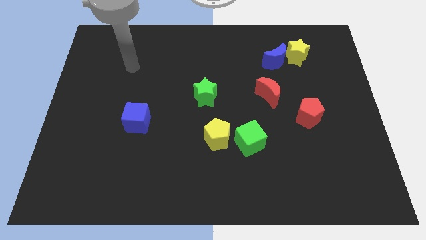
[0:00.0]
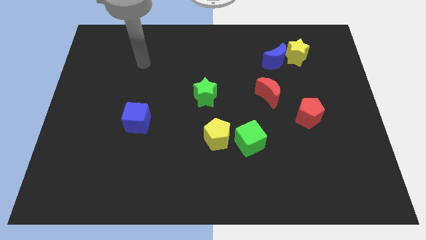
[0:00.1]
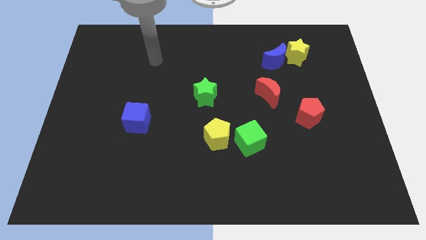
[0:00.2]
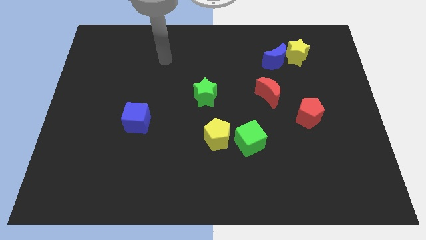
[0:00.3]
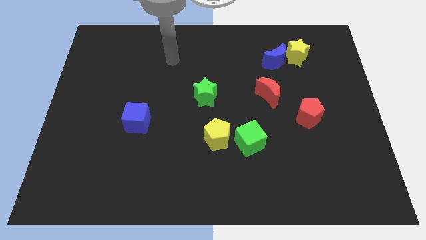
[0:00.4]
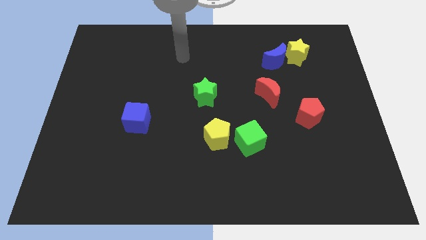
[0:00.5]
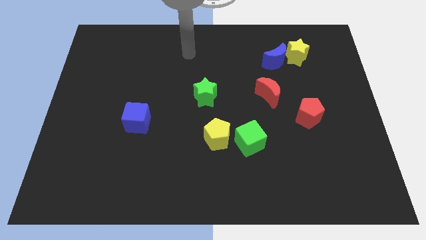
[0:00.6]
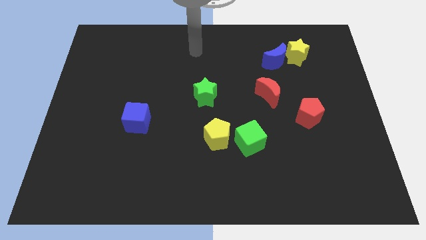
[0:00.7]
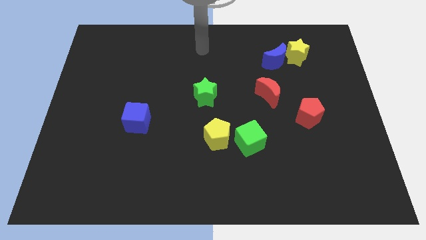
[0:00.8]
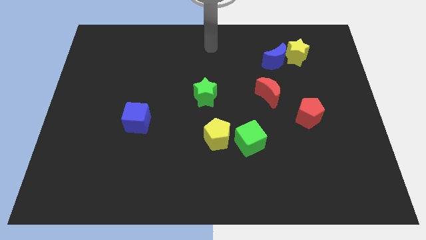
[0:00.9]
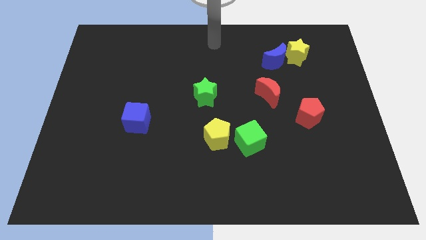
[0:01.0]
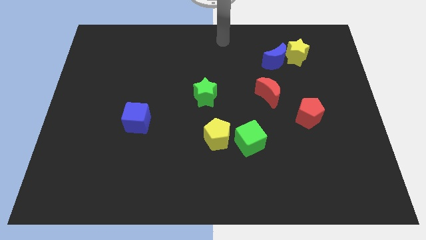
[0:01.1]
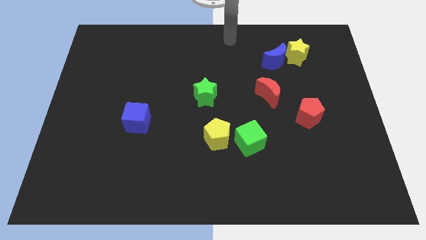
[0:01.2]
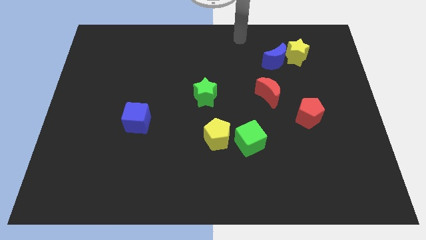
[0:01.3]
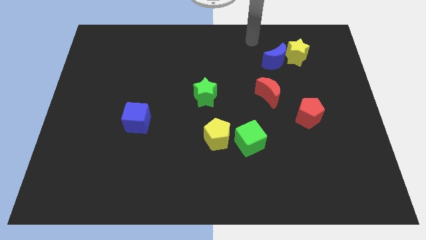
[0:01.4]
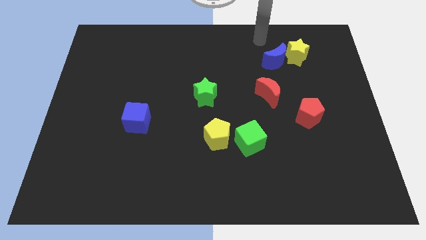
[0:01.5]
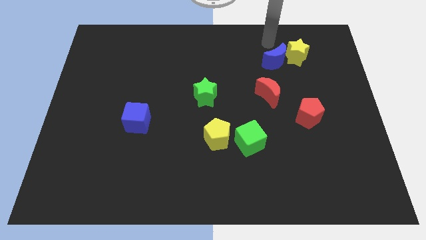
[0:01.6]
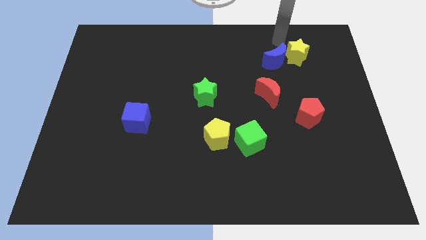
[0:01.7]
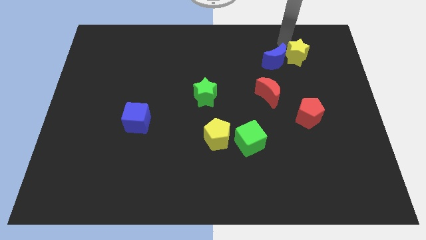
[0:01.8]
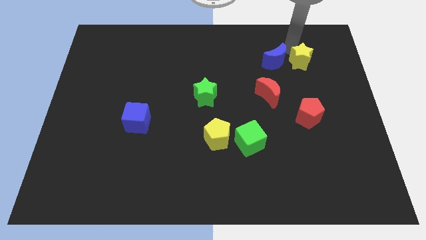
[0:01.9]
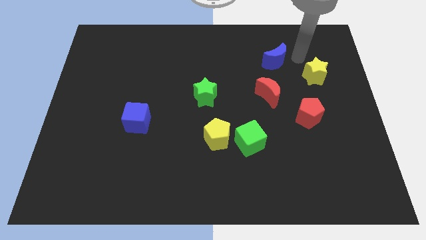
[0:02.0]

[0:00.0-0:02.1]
separate the blue moon from the yellow star

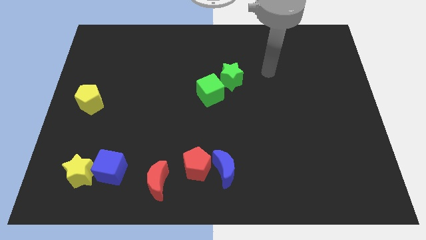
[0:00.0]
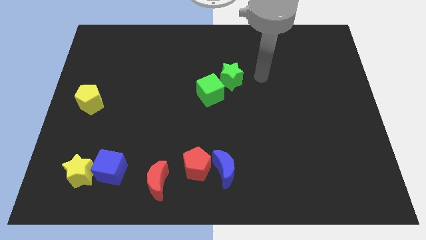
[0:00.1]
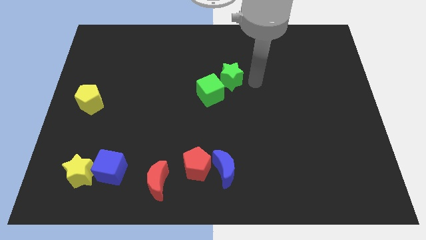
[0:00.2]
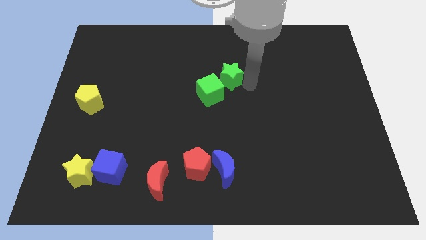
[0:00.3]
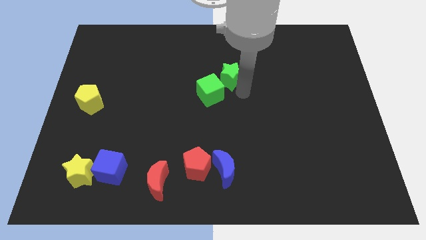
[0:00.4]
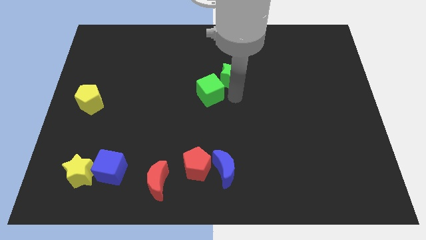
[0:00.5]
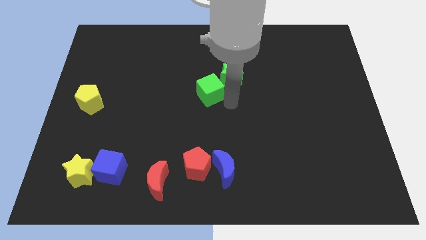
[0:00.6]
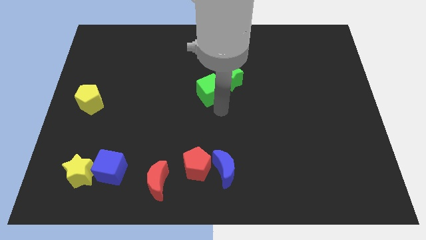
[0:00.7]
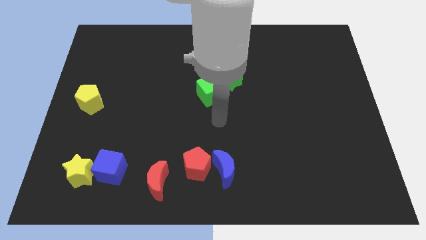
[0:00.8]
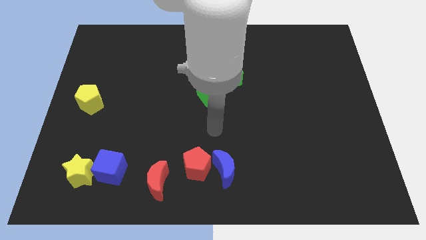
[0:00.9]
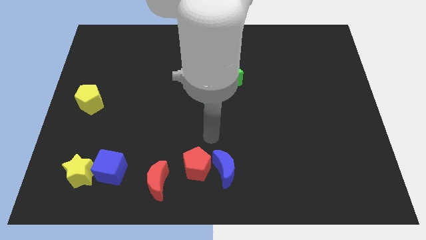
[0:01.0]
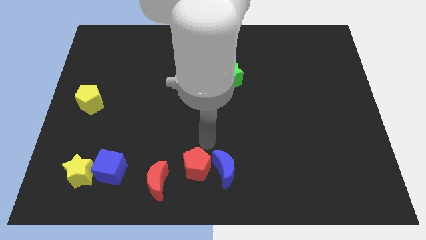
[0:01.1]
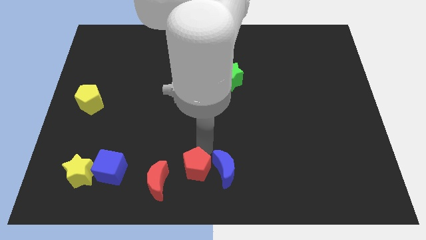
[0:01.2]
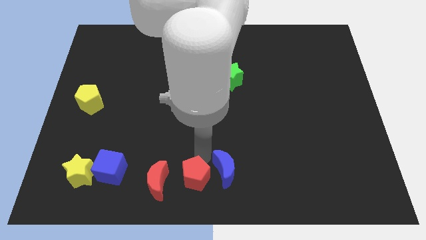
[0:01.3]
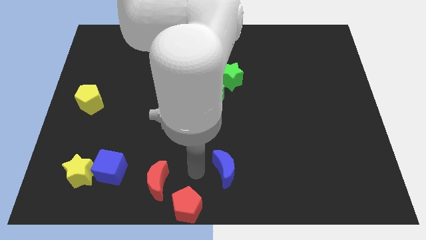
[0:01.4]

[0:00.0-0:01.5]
pull the blue moon apart from the red pentagon

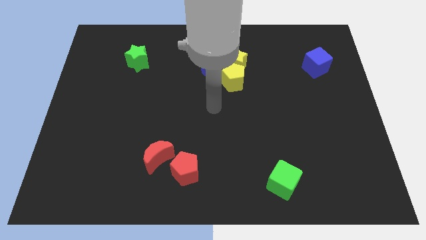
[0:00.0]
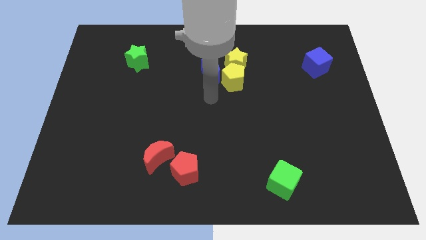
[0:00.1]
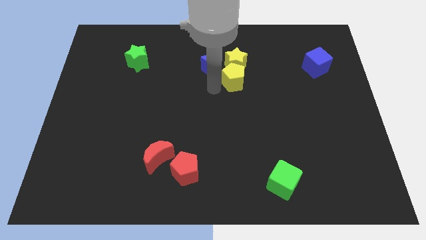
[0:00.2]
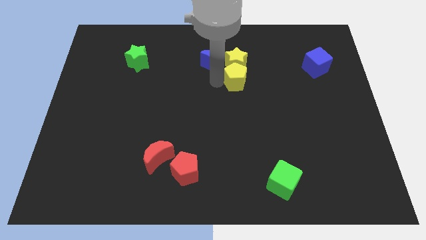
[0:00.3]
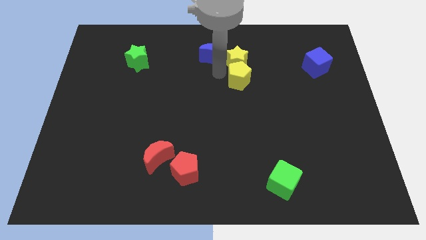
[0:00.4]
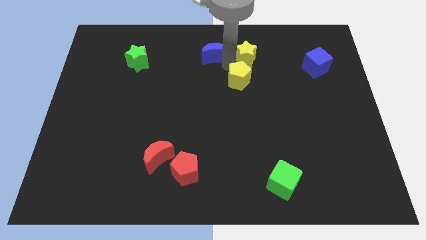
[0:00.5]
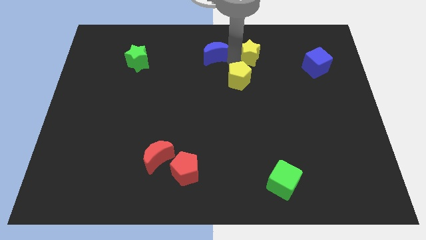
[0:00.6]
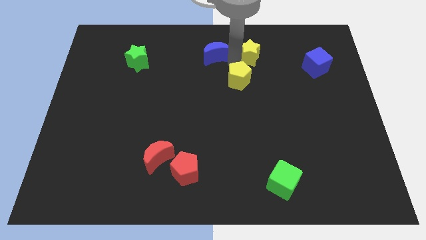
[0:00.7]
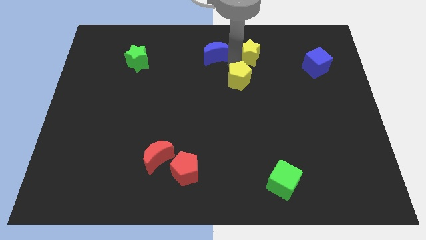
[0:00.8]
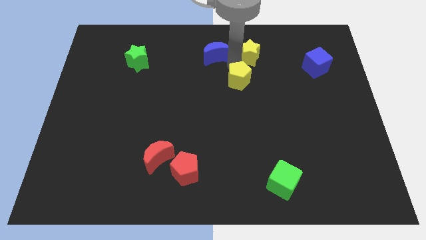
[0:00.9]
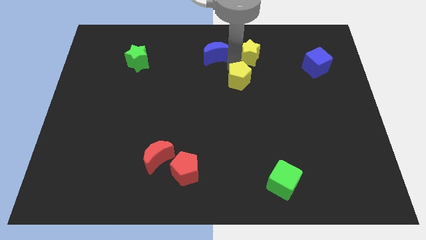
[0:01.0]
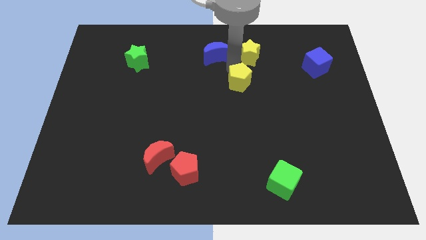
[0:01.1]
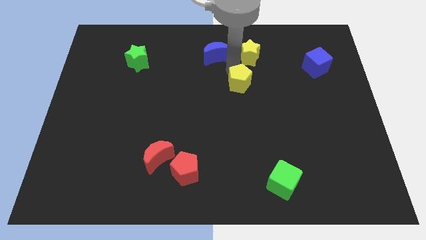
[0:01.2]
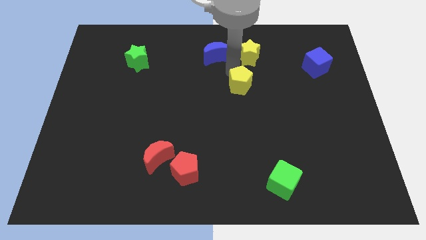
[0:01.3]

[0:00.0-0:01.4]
pull the yellow pentagon apart from the yellow star and blue moon

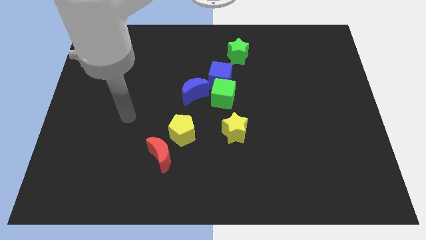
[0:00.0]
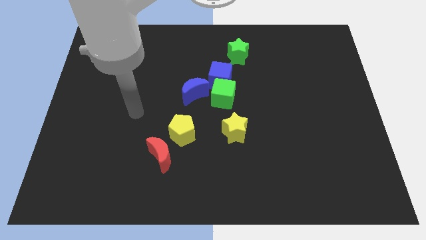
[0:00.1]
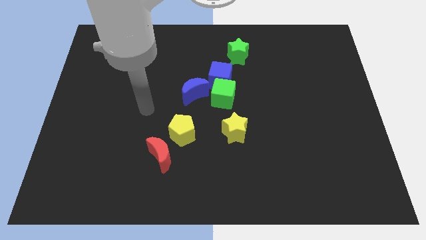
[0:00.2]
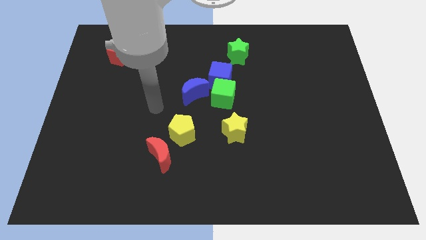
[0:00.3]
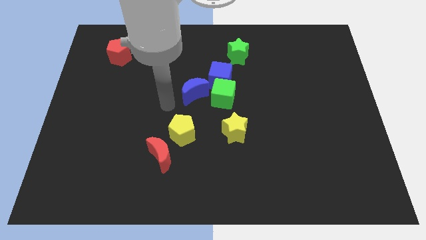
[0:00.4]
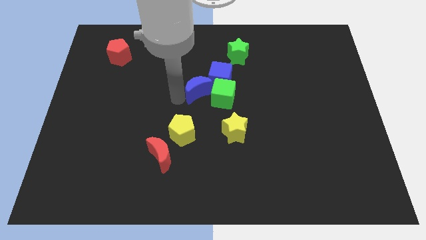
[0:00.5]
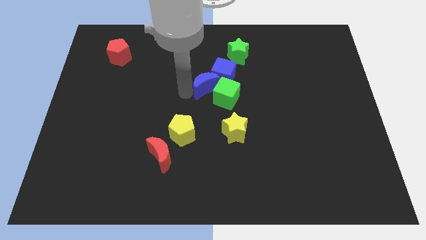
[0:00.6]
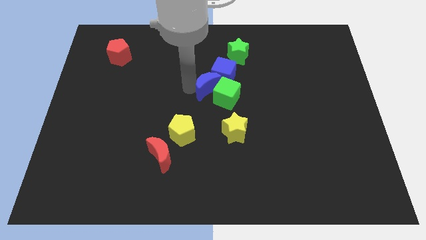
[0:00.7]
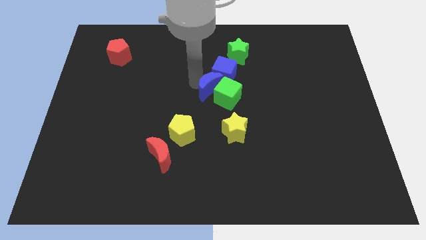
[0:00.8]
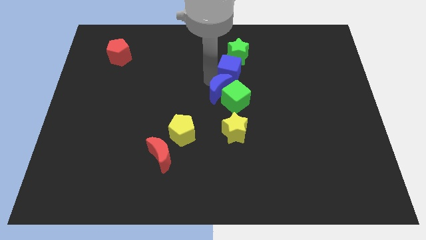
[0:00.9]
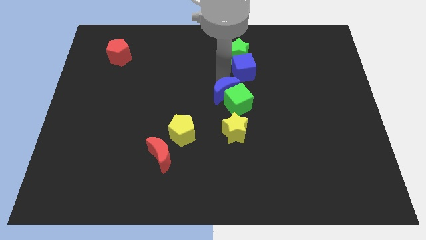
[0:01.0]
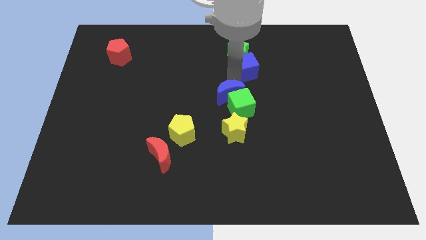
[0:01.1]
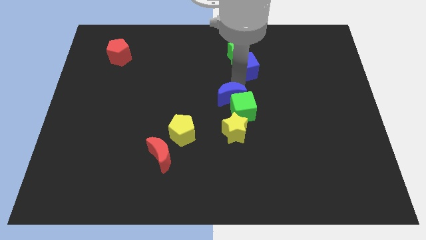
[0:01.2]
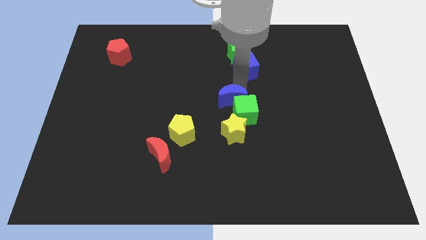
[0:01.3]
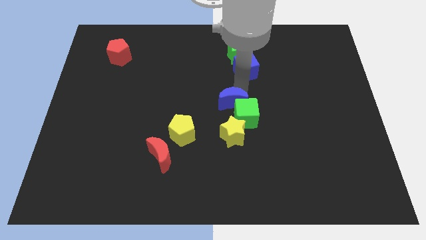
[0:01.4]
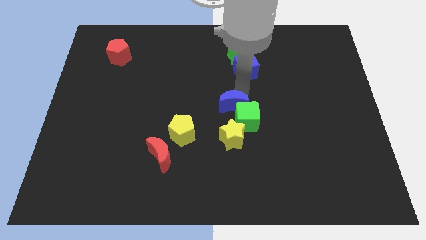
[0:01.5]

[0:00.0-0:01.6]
move the green cube away from the blue cube and blue moon

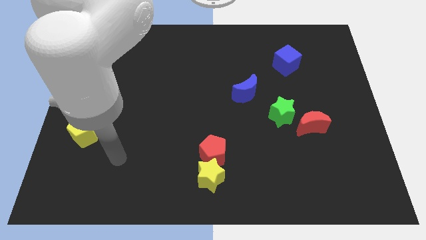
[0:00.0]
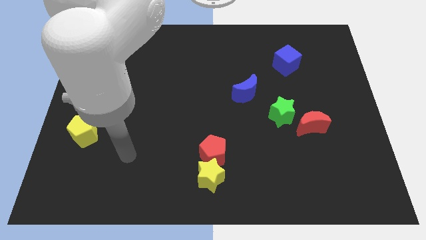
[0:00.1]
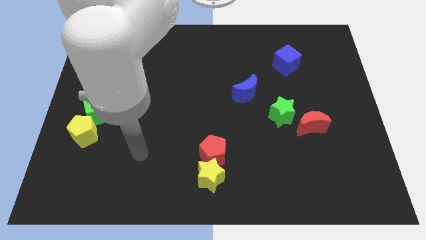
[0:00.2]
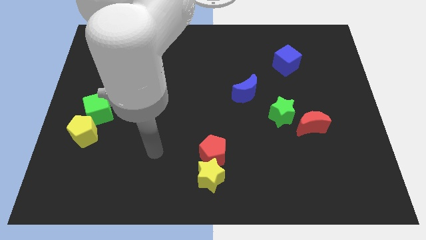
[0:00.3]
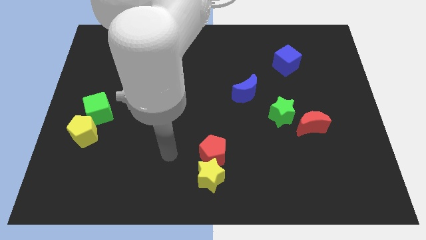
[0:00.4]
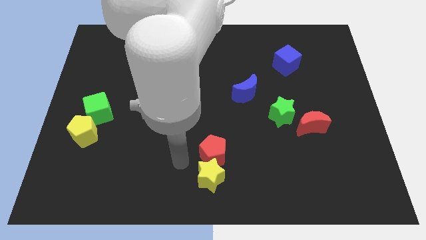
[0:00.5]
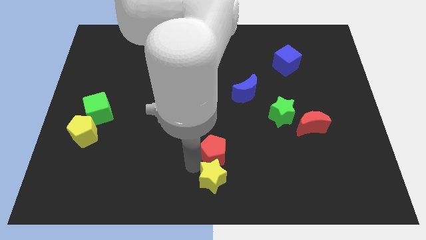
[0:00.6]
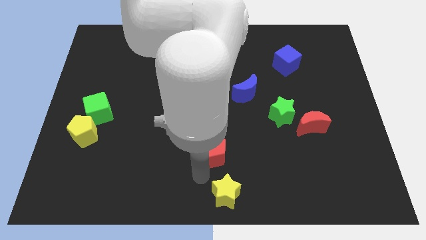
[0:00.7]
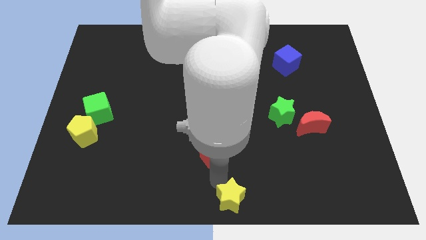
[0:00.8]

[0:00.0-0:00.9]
separate the red pentagon from the yellow star

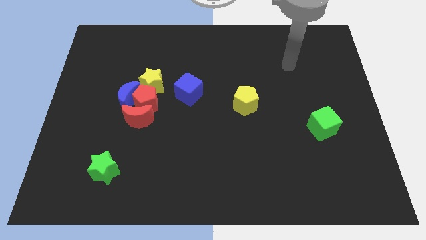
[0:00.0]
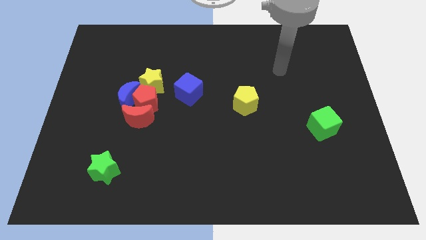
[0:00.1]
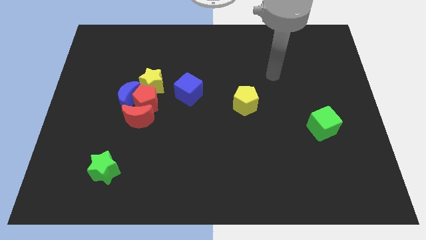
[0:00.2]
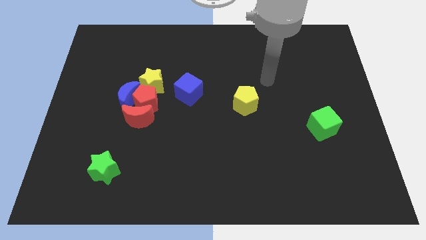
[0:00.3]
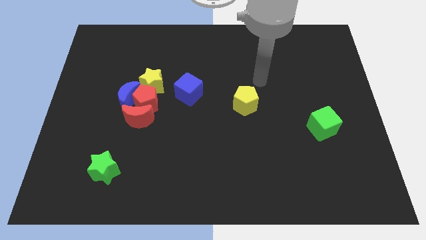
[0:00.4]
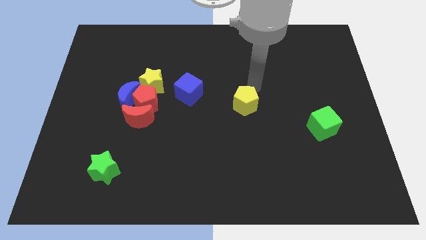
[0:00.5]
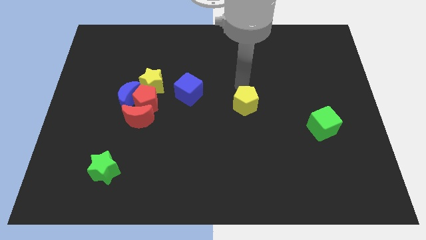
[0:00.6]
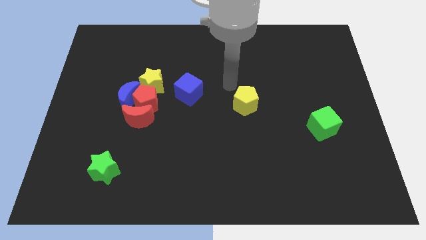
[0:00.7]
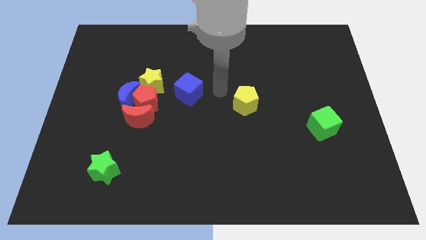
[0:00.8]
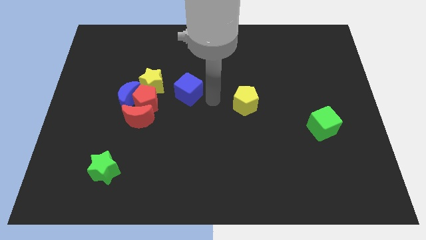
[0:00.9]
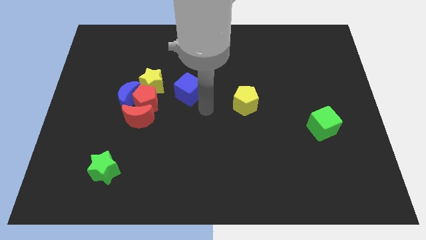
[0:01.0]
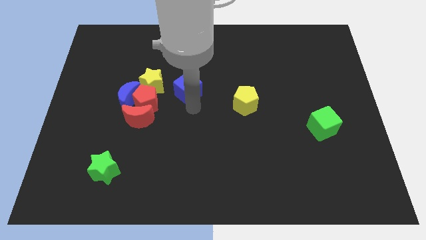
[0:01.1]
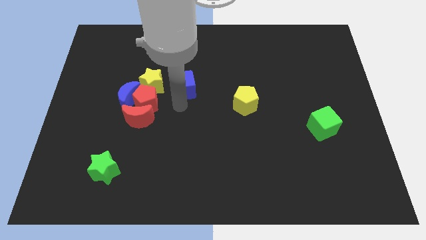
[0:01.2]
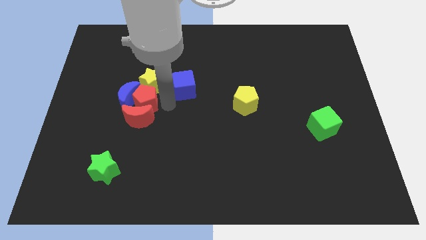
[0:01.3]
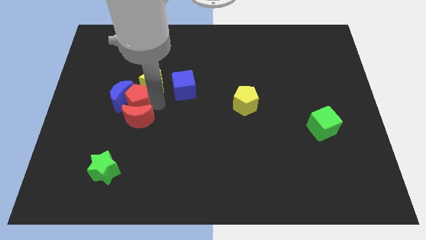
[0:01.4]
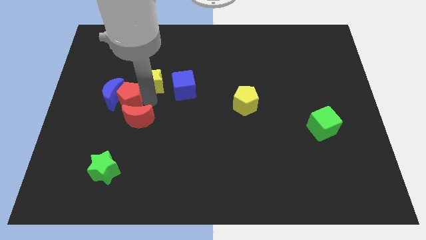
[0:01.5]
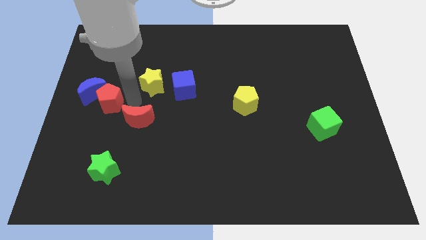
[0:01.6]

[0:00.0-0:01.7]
pull the red moon apart from the red pentagon and blue moon

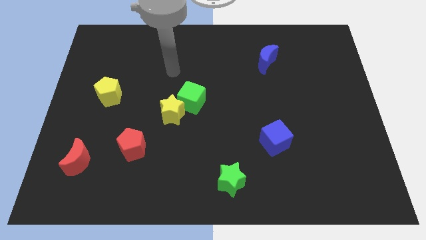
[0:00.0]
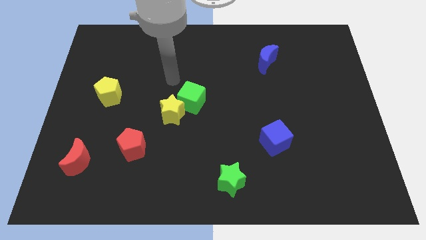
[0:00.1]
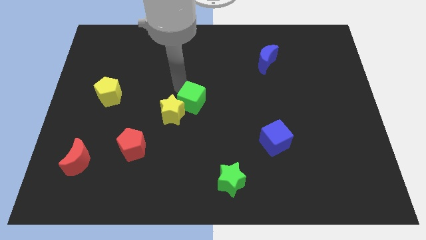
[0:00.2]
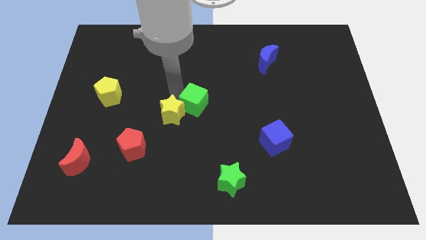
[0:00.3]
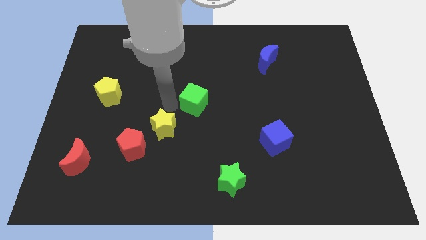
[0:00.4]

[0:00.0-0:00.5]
move the green cube away from the yellow star
